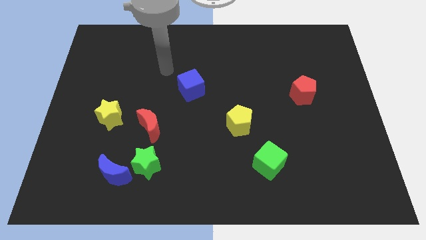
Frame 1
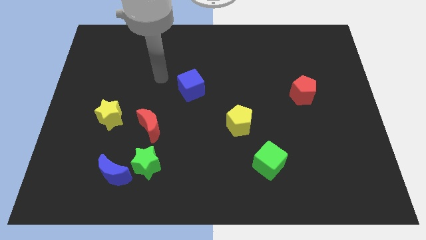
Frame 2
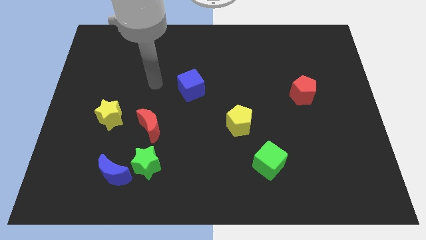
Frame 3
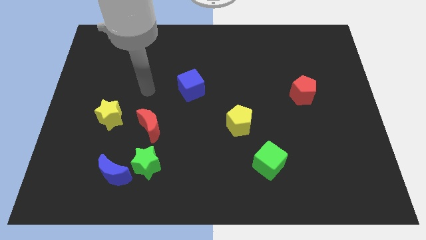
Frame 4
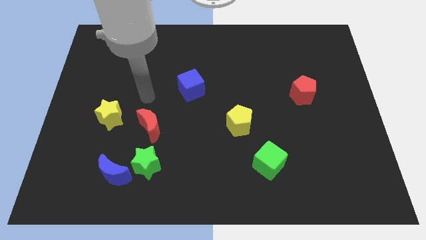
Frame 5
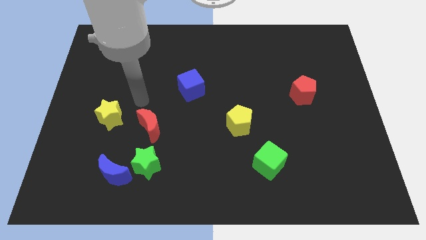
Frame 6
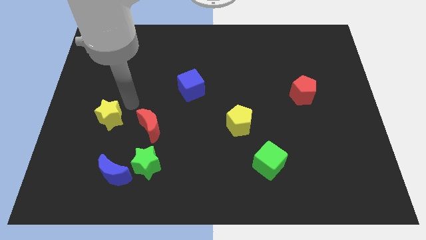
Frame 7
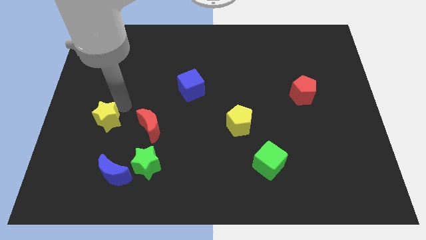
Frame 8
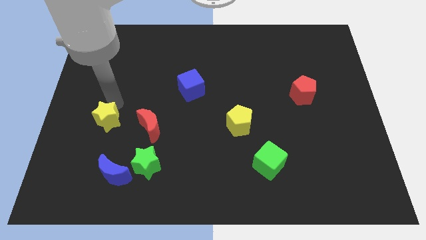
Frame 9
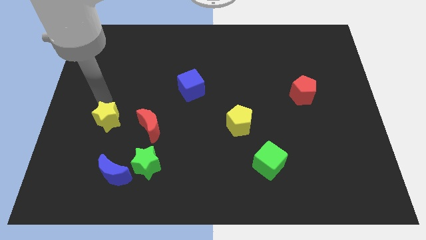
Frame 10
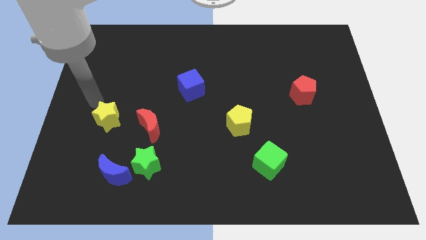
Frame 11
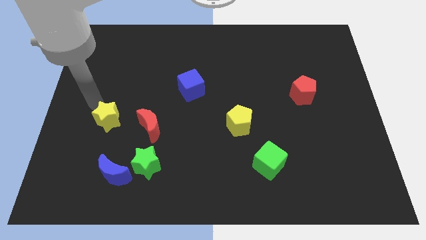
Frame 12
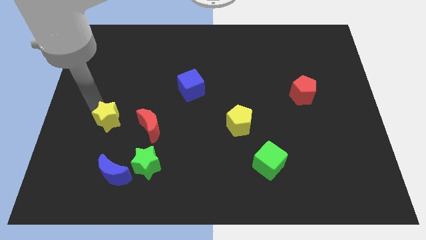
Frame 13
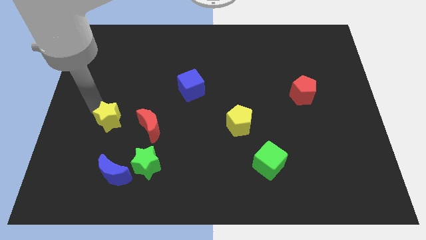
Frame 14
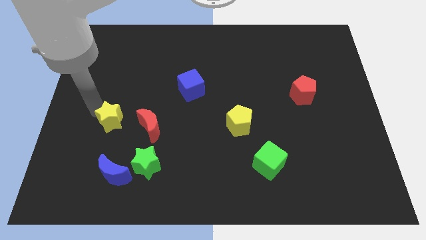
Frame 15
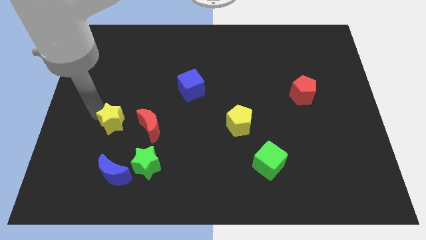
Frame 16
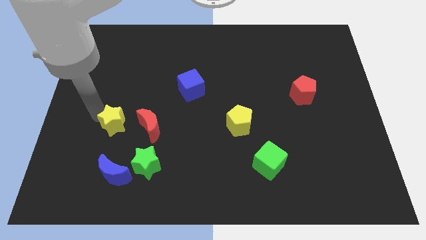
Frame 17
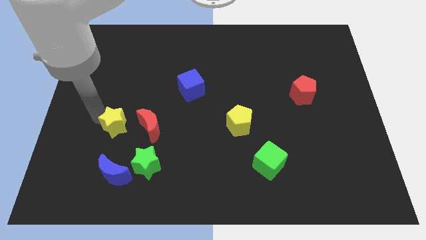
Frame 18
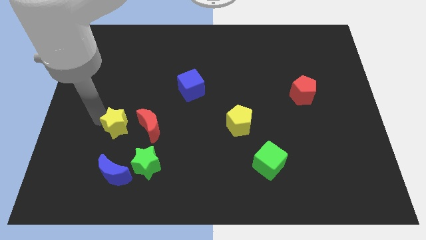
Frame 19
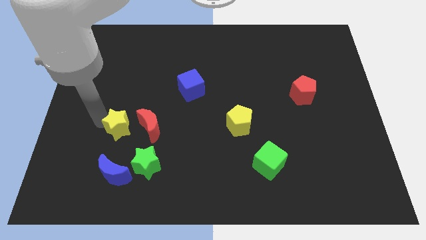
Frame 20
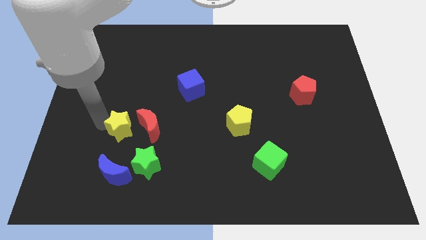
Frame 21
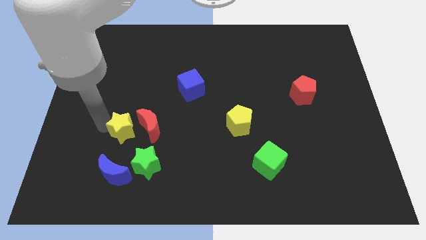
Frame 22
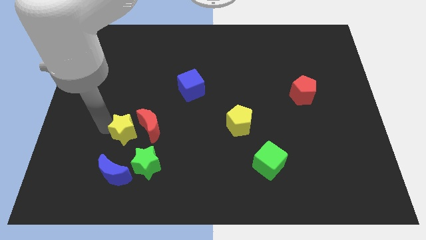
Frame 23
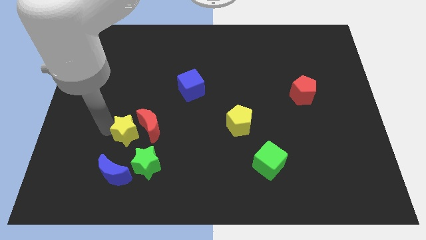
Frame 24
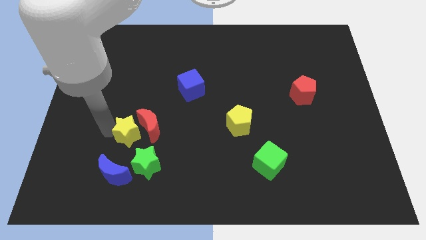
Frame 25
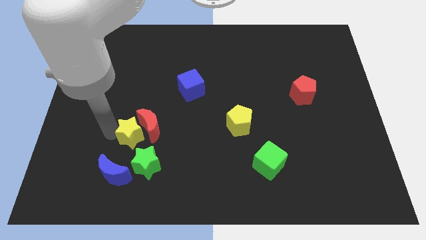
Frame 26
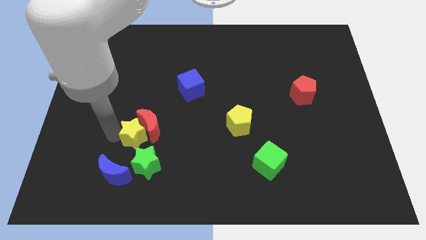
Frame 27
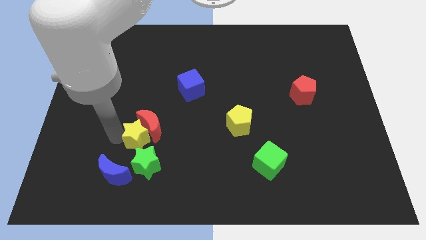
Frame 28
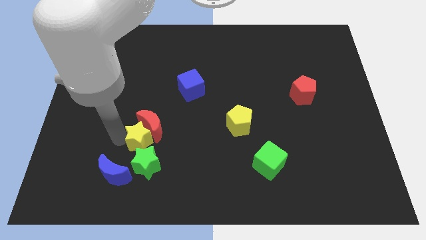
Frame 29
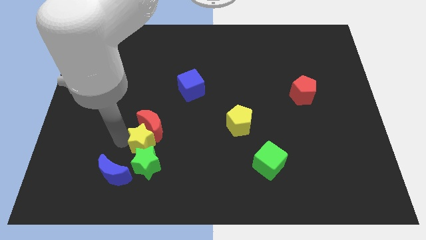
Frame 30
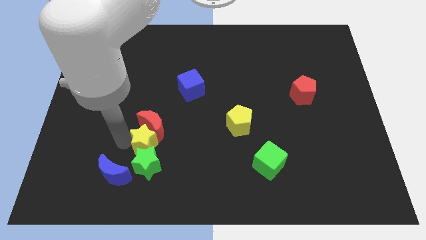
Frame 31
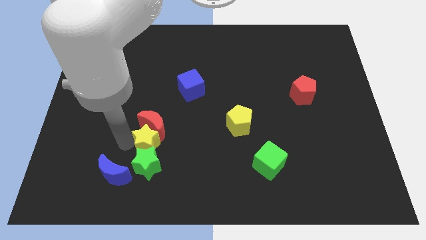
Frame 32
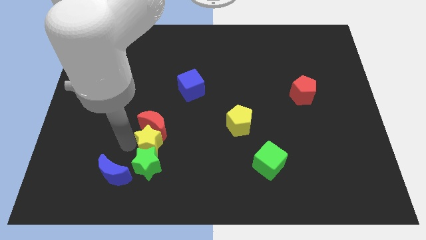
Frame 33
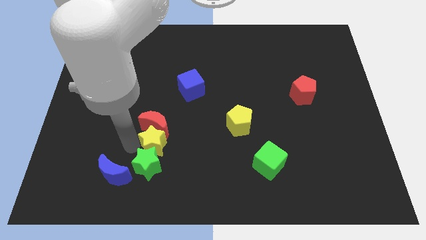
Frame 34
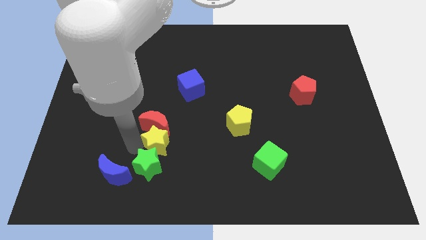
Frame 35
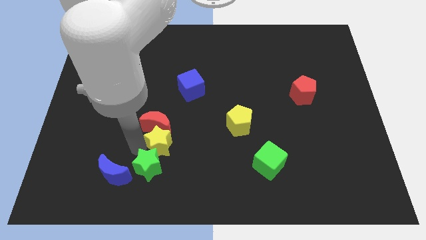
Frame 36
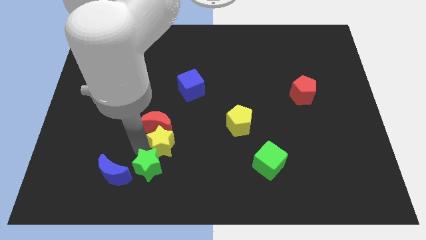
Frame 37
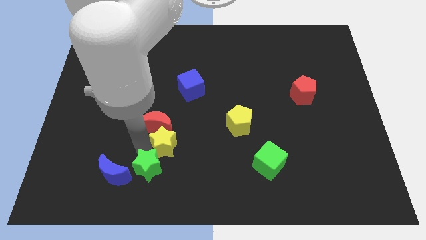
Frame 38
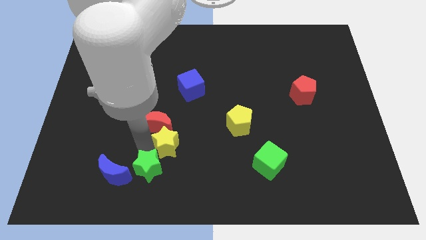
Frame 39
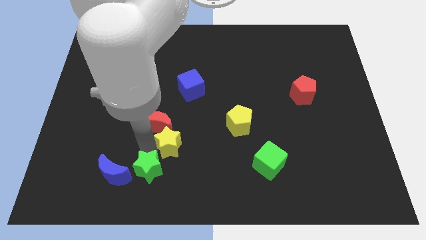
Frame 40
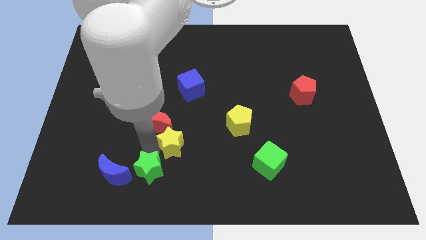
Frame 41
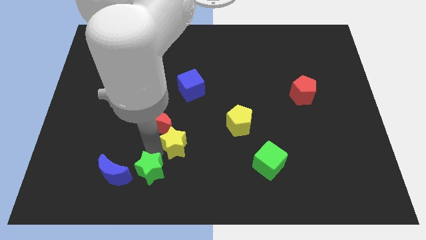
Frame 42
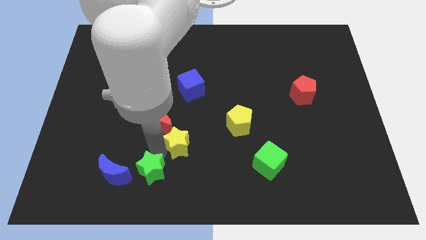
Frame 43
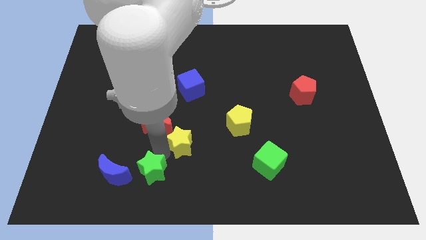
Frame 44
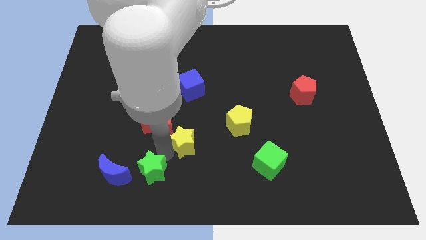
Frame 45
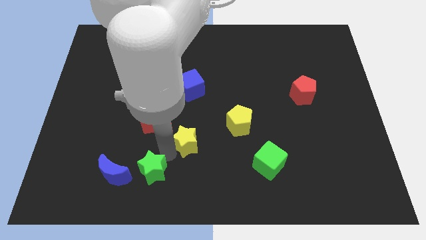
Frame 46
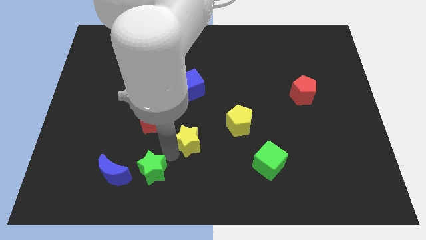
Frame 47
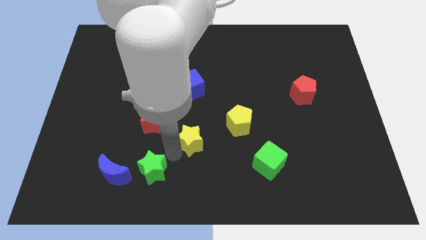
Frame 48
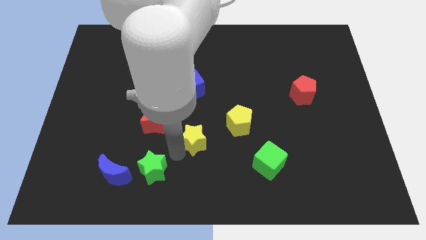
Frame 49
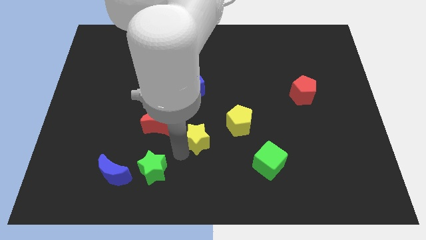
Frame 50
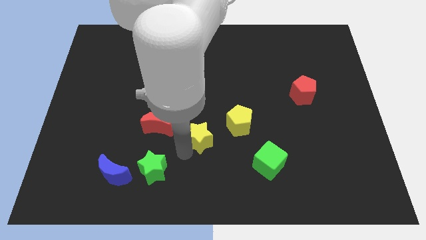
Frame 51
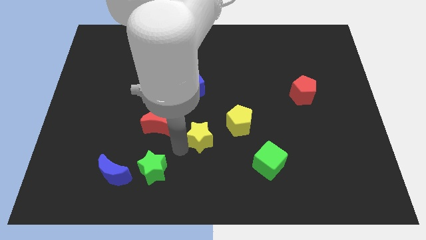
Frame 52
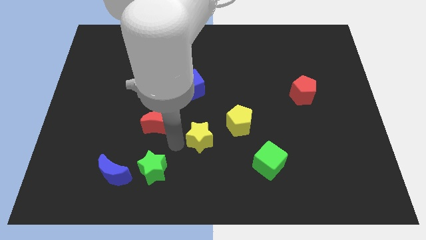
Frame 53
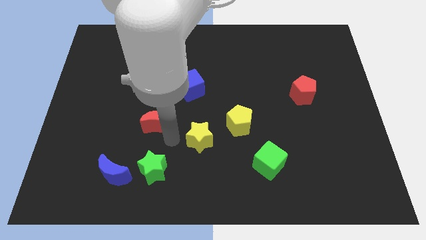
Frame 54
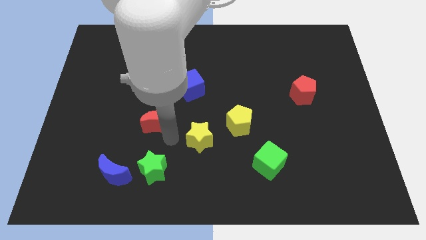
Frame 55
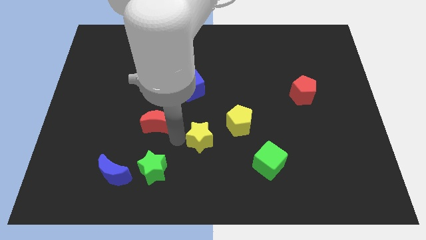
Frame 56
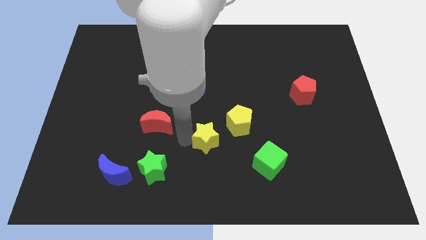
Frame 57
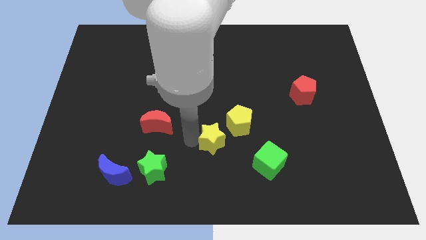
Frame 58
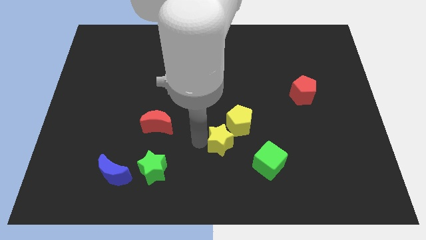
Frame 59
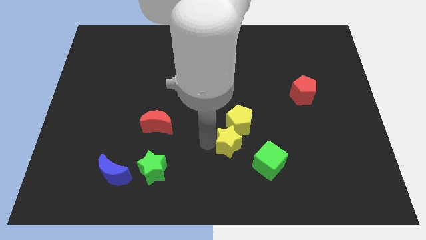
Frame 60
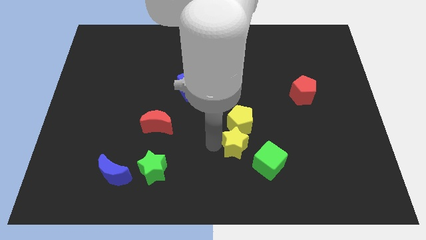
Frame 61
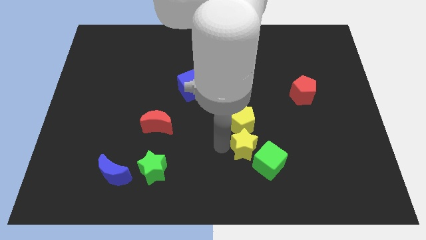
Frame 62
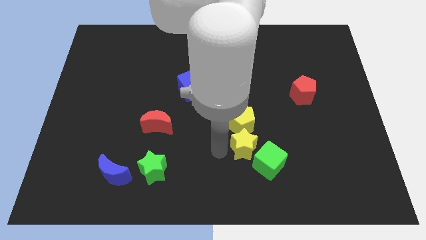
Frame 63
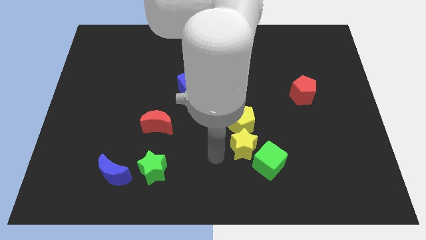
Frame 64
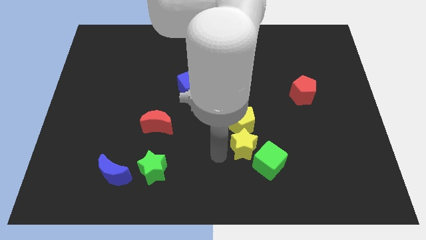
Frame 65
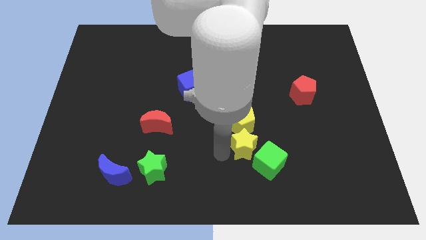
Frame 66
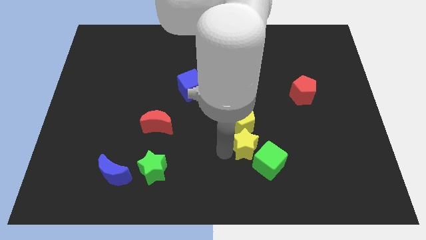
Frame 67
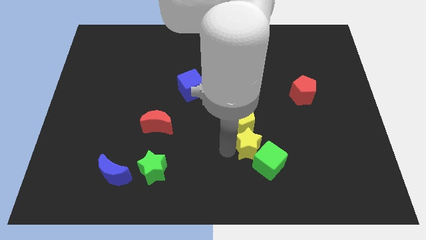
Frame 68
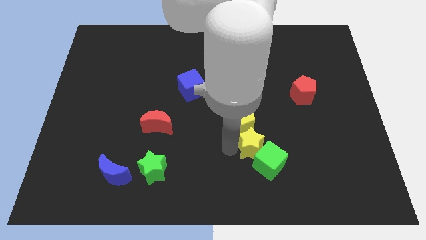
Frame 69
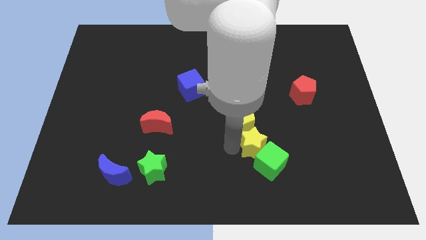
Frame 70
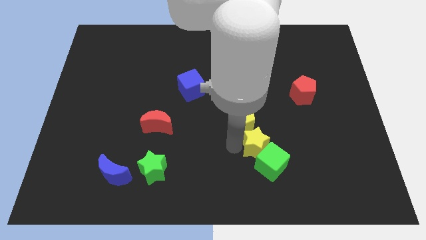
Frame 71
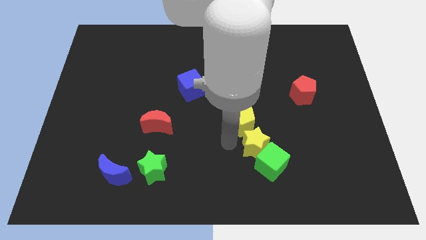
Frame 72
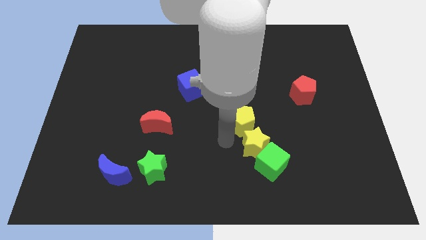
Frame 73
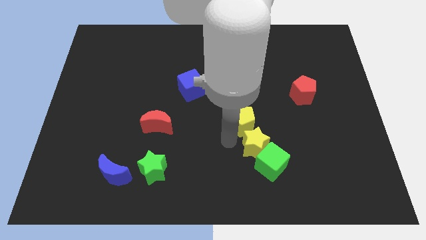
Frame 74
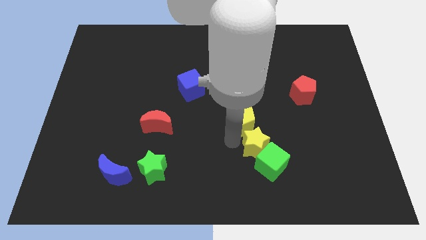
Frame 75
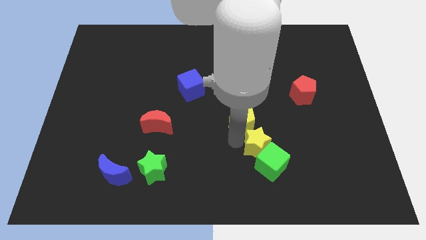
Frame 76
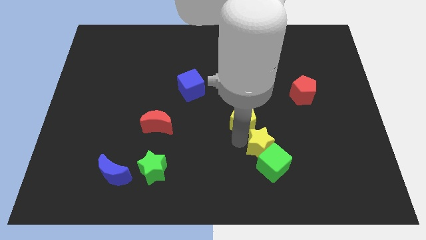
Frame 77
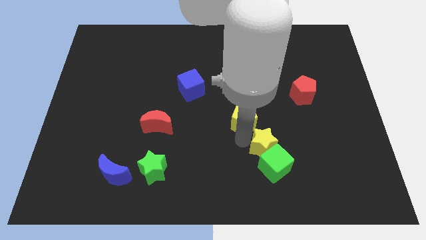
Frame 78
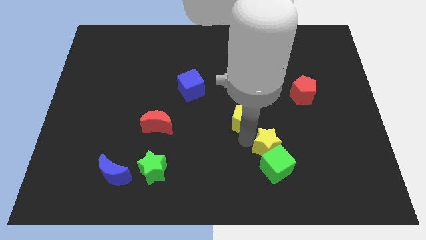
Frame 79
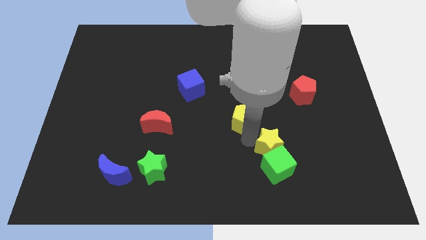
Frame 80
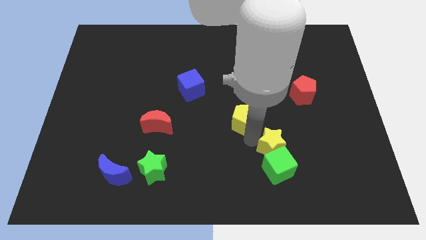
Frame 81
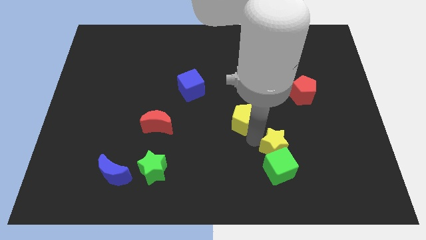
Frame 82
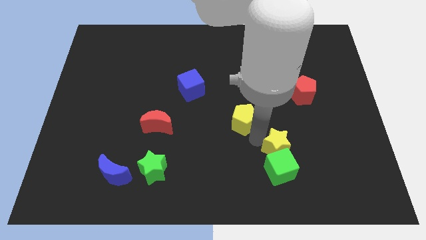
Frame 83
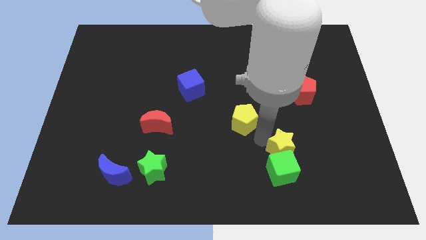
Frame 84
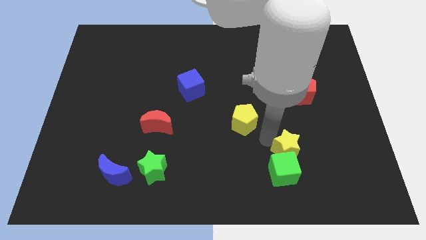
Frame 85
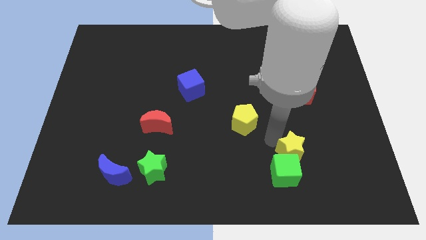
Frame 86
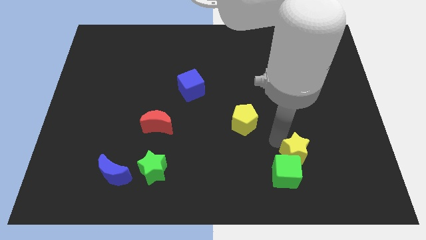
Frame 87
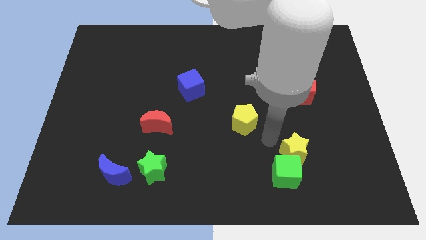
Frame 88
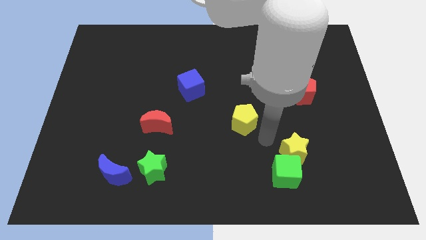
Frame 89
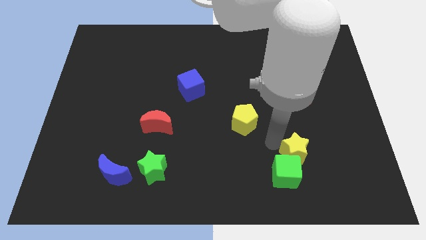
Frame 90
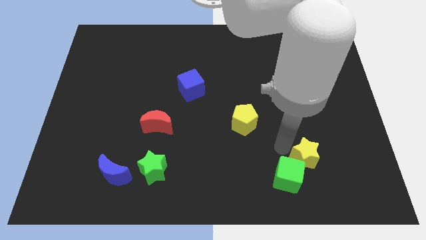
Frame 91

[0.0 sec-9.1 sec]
slide the yellow star right of the green cube
